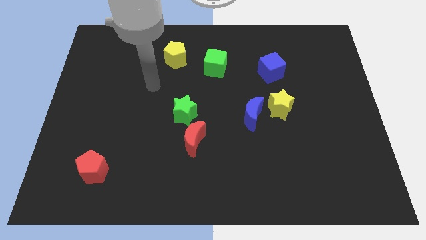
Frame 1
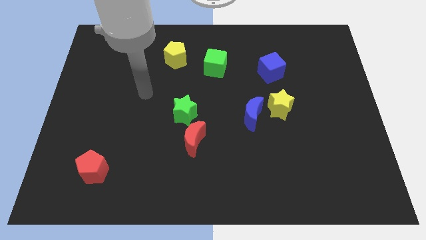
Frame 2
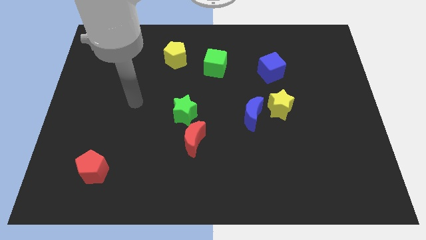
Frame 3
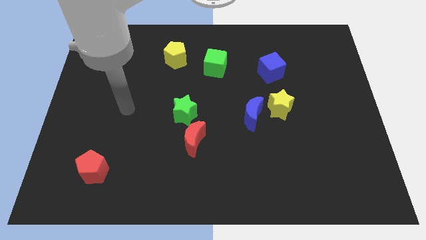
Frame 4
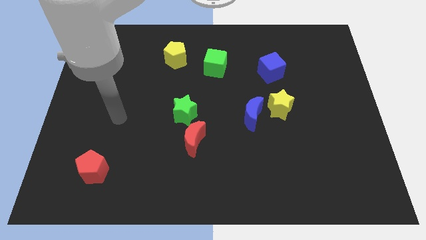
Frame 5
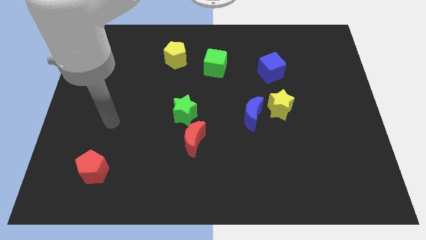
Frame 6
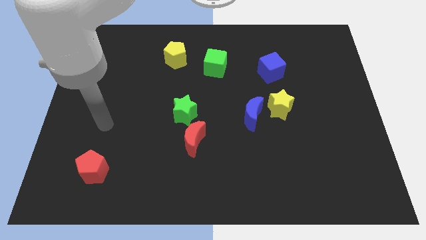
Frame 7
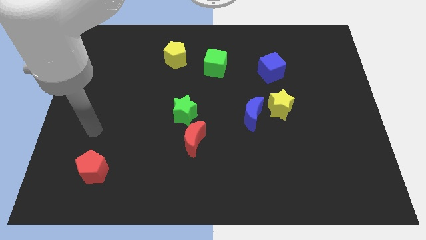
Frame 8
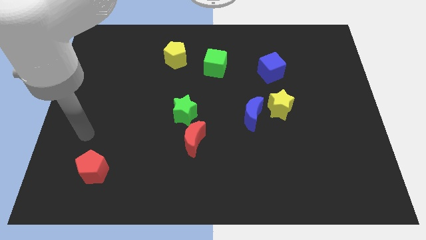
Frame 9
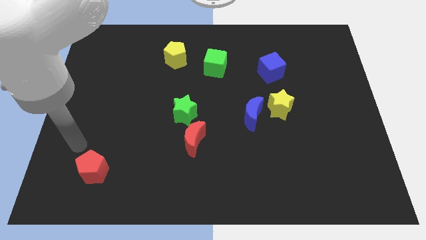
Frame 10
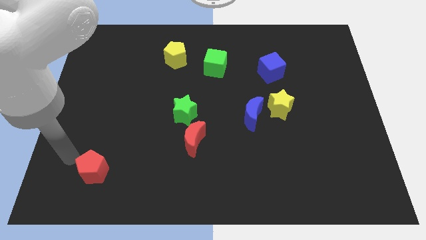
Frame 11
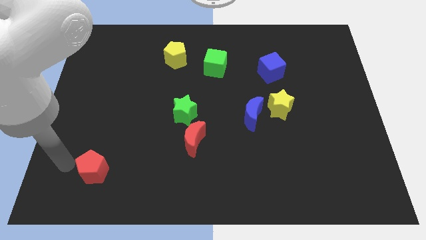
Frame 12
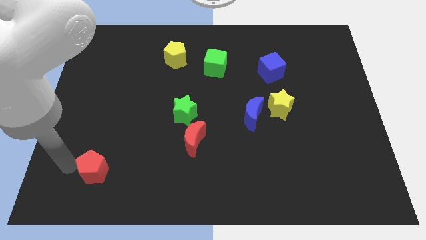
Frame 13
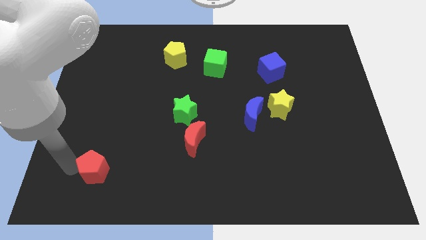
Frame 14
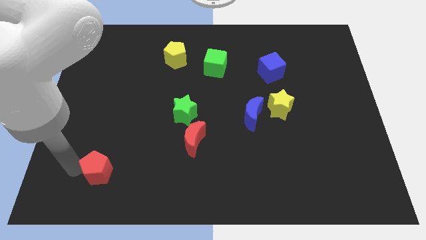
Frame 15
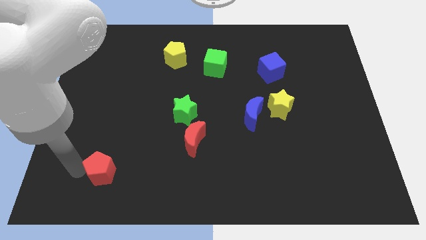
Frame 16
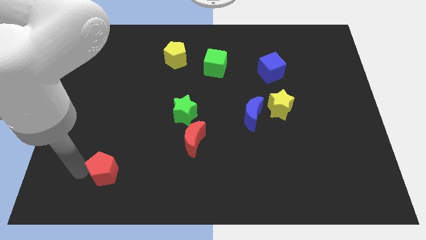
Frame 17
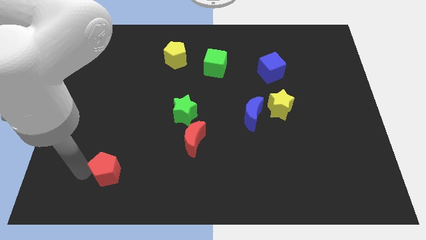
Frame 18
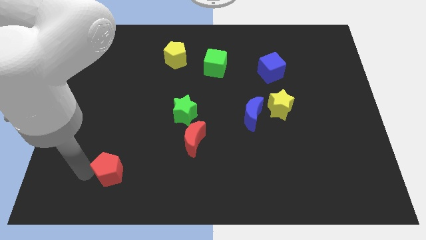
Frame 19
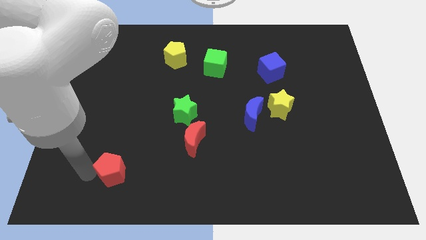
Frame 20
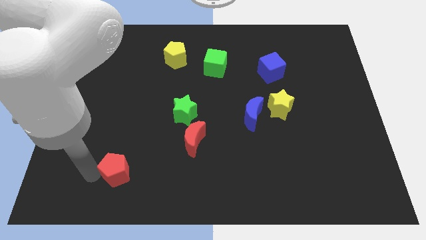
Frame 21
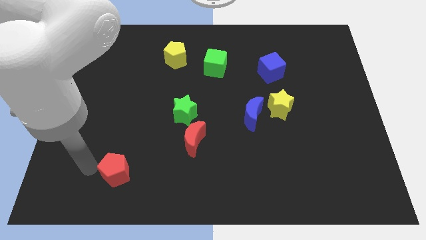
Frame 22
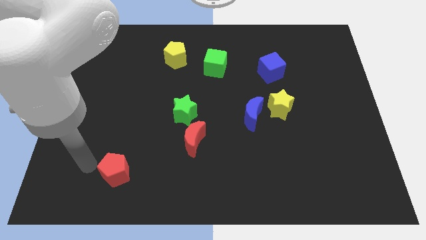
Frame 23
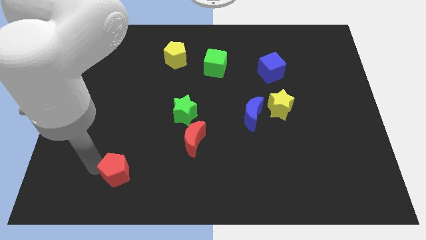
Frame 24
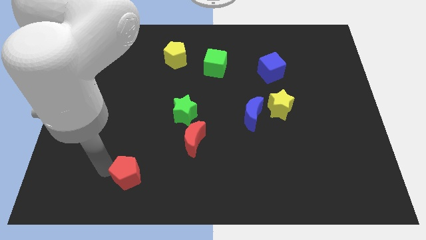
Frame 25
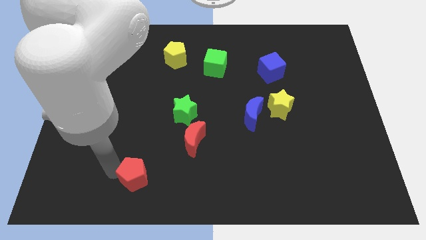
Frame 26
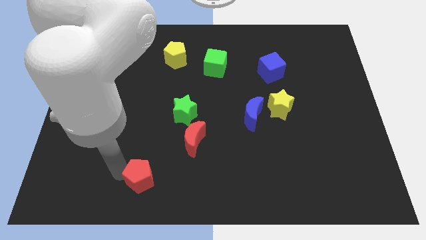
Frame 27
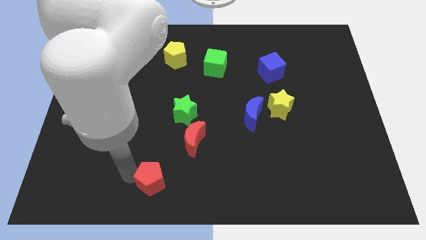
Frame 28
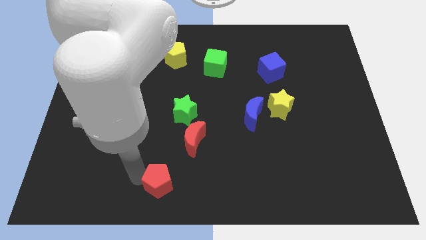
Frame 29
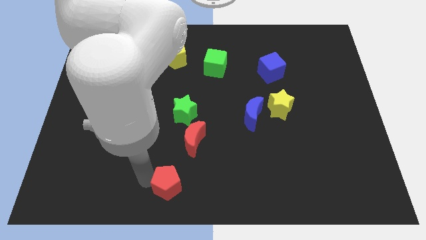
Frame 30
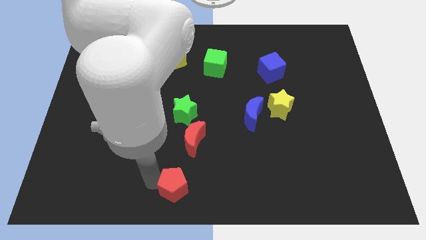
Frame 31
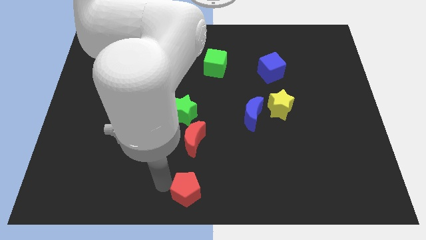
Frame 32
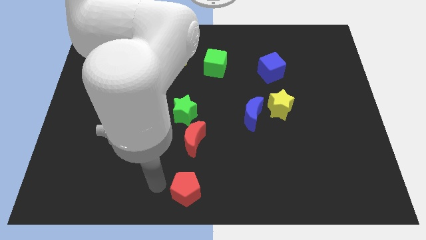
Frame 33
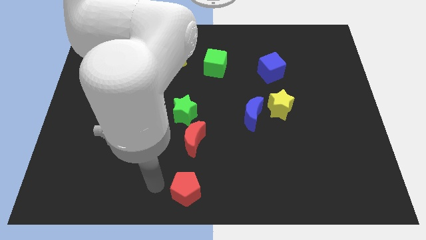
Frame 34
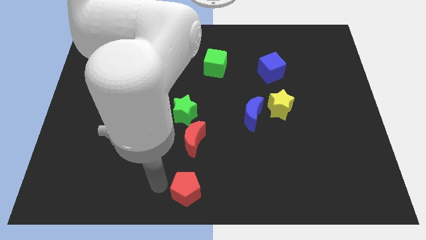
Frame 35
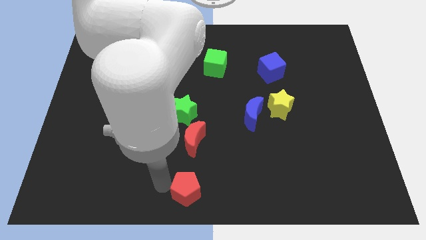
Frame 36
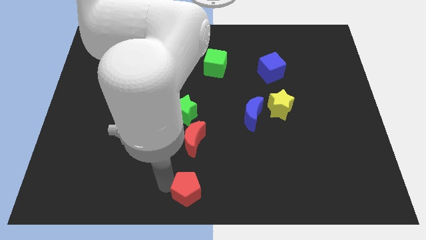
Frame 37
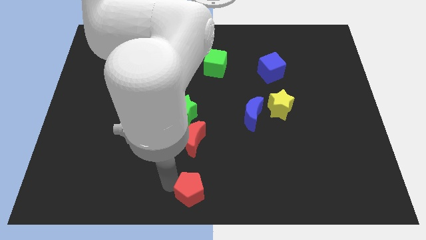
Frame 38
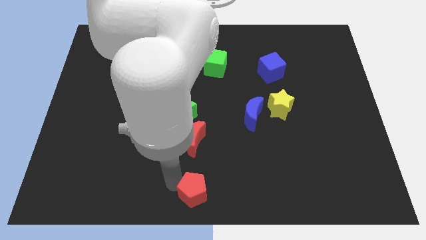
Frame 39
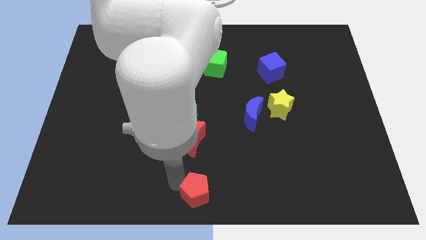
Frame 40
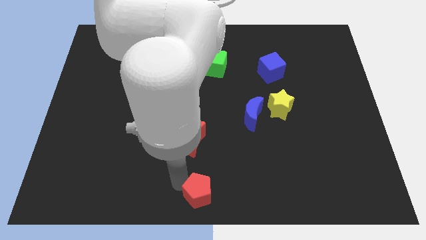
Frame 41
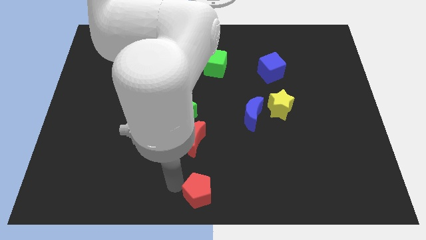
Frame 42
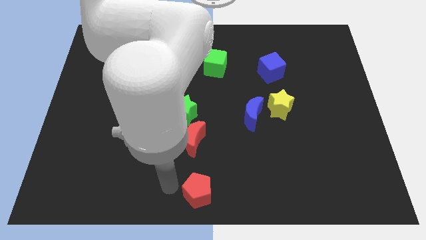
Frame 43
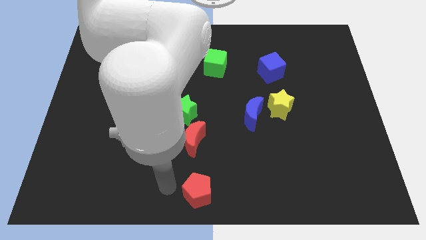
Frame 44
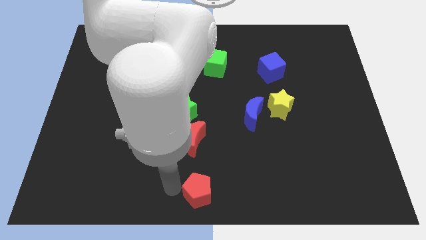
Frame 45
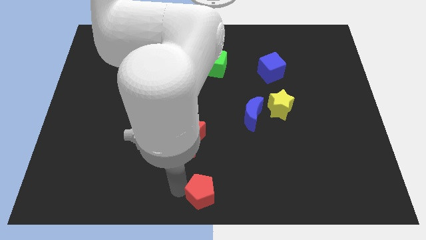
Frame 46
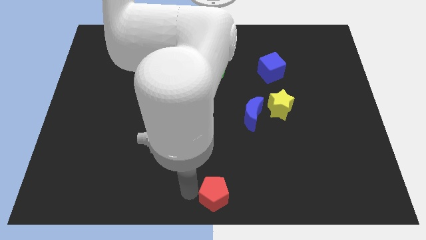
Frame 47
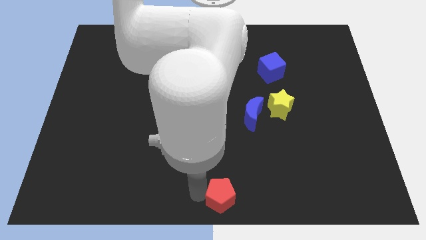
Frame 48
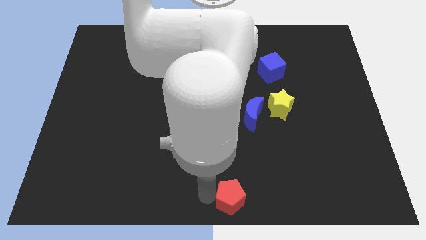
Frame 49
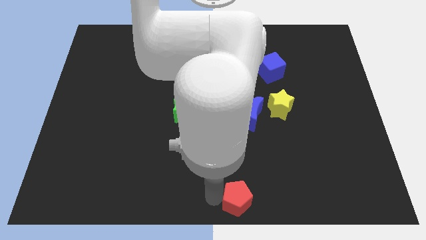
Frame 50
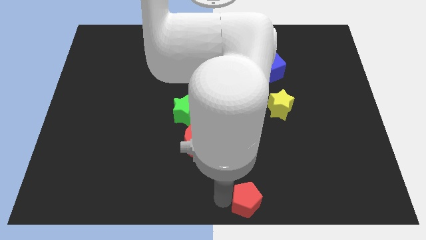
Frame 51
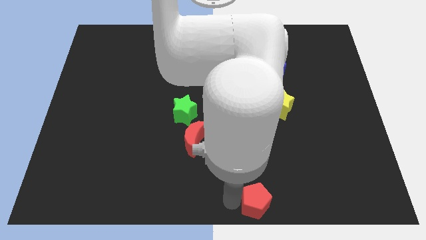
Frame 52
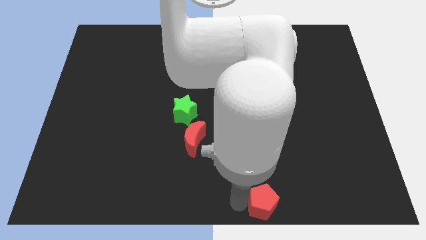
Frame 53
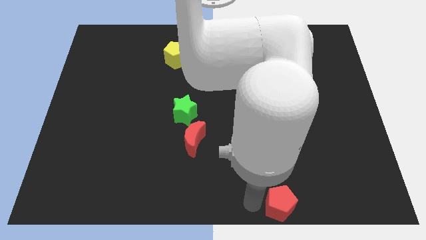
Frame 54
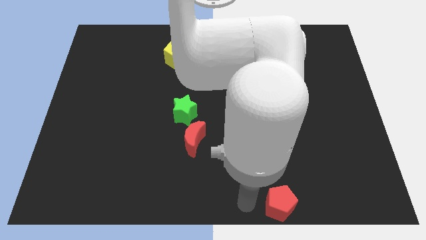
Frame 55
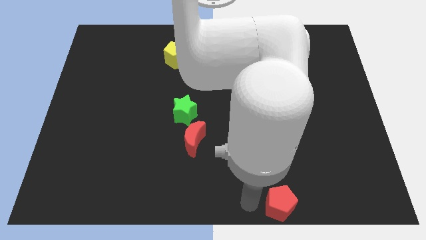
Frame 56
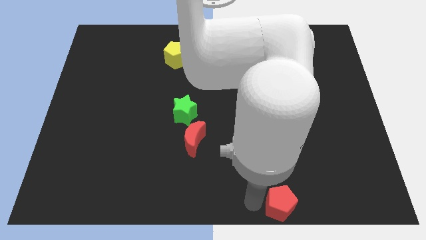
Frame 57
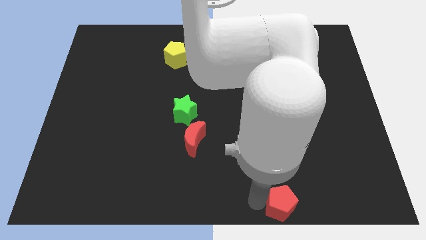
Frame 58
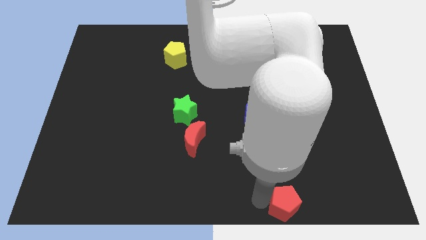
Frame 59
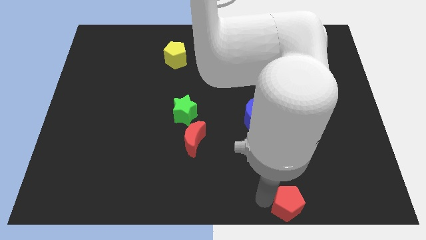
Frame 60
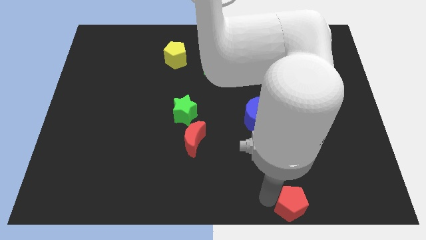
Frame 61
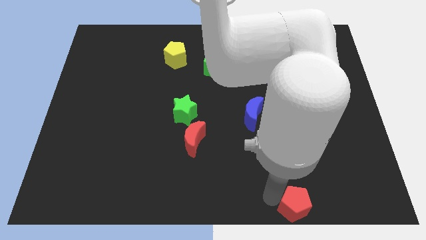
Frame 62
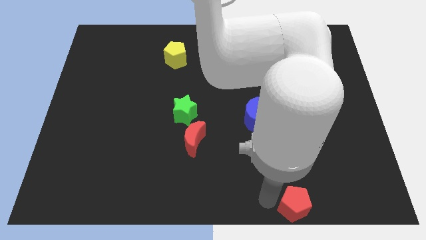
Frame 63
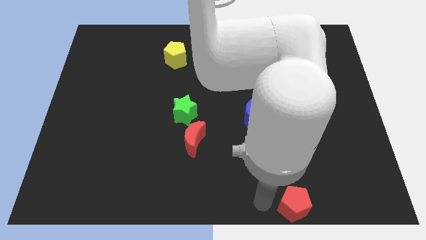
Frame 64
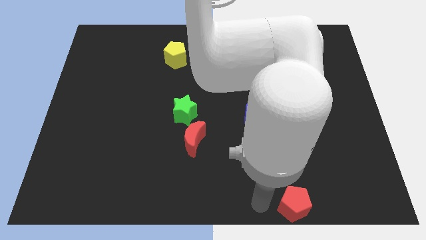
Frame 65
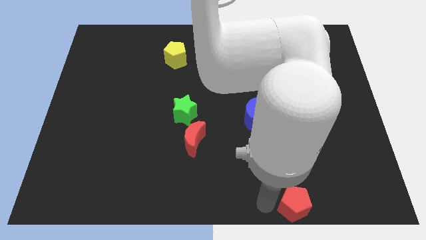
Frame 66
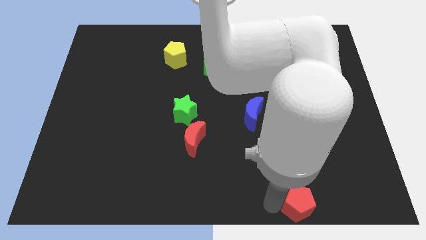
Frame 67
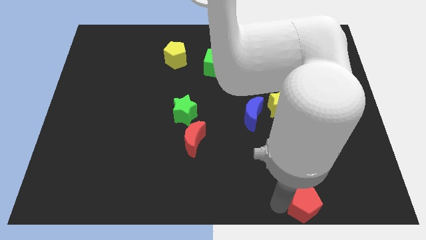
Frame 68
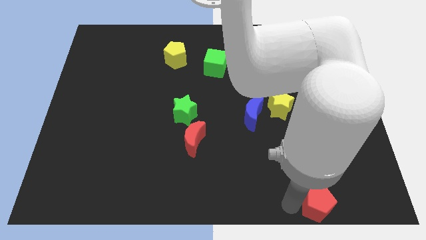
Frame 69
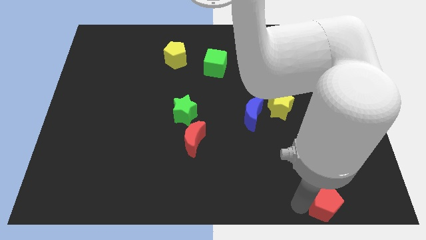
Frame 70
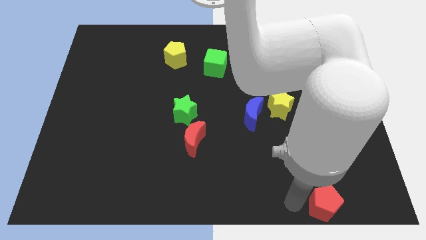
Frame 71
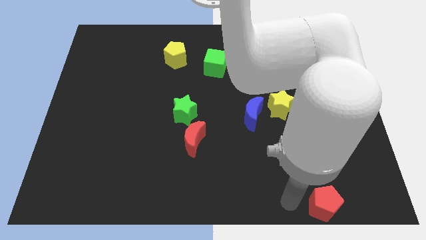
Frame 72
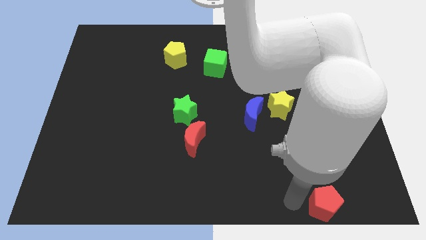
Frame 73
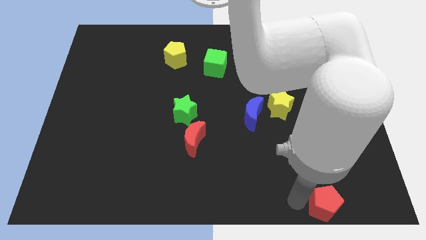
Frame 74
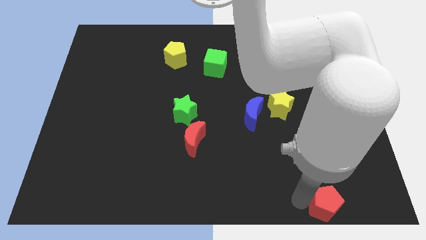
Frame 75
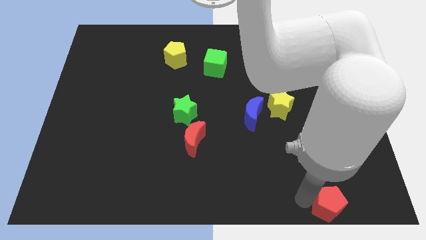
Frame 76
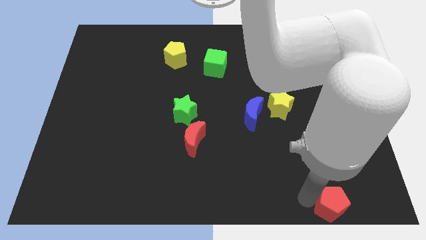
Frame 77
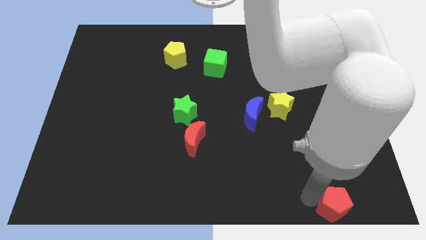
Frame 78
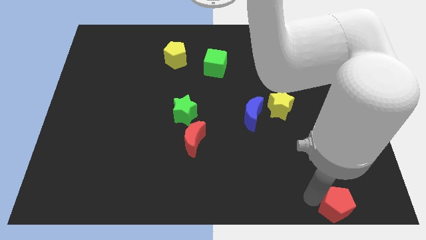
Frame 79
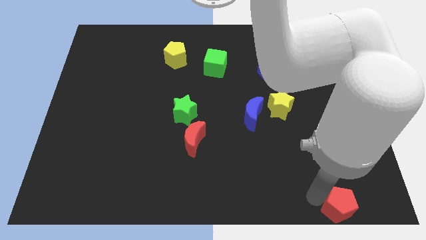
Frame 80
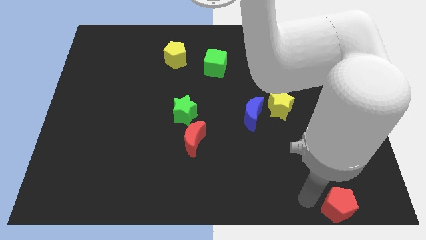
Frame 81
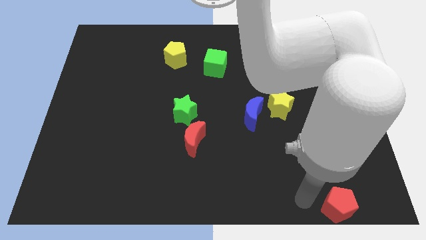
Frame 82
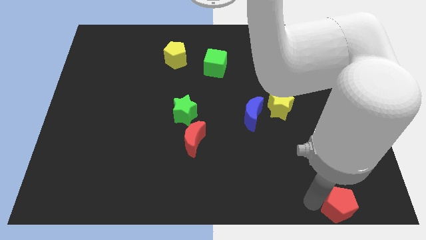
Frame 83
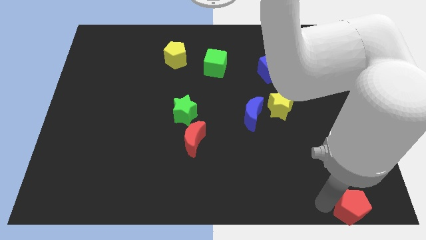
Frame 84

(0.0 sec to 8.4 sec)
move the red pentagon to the bottom right of the board
